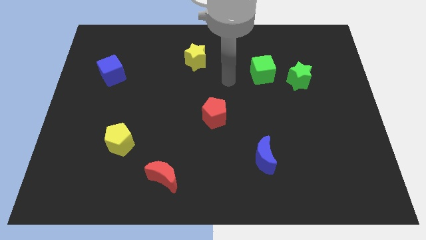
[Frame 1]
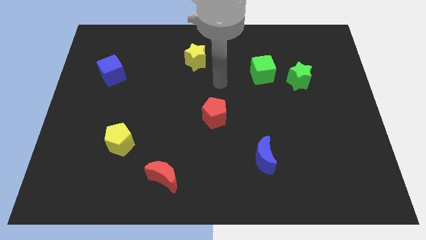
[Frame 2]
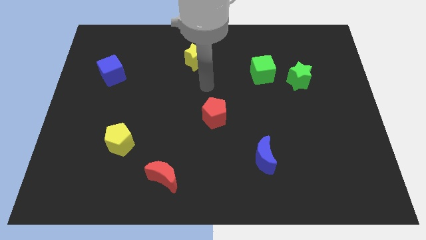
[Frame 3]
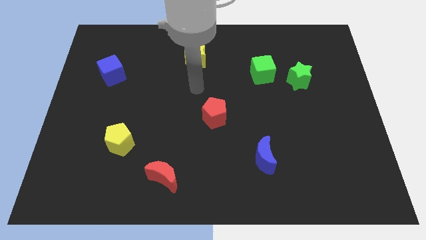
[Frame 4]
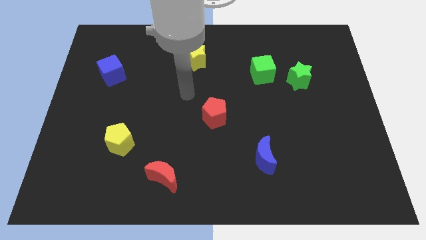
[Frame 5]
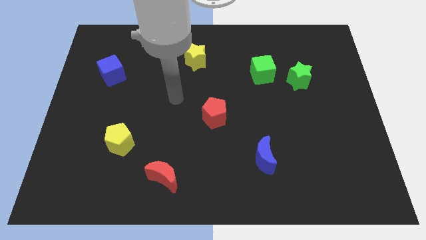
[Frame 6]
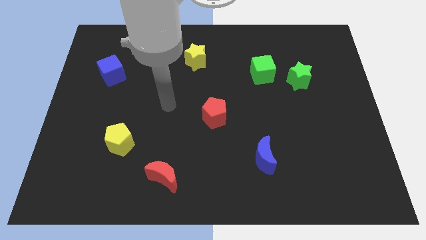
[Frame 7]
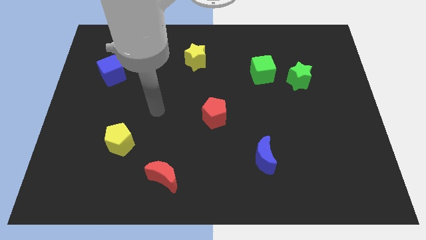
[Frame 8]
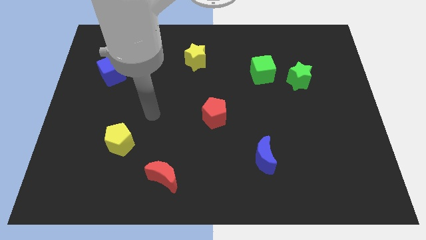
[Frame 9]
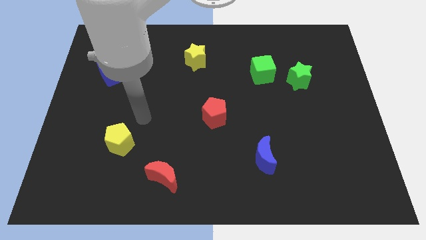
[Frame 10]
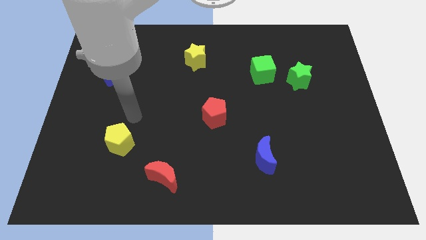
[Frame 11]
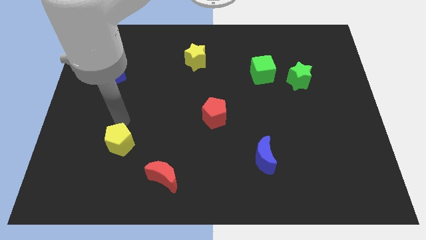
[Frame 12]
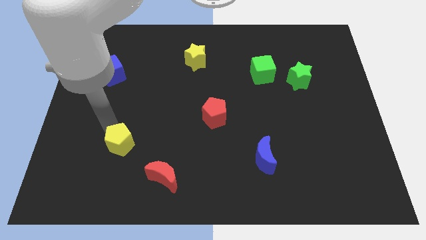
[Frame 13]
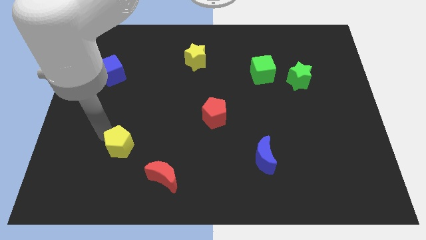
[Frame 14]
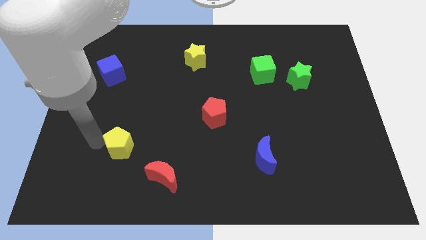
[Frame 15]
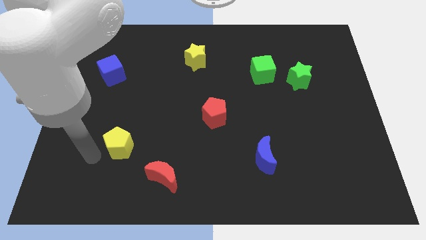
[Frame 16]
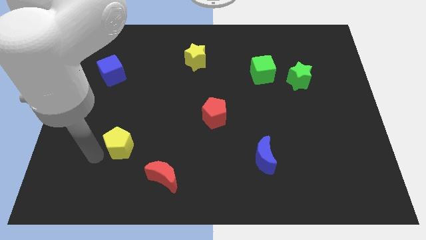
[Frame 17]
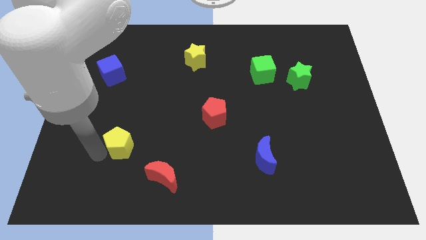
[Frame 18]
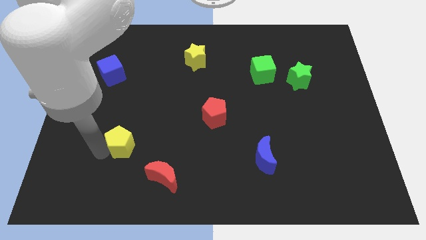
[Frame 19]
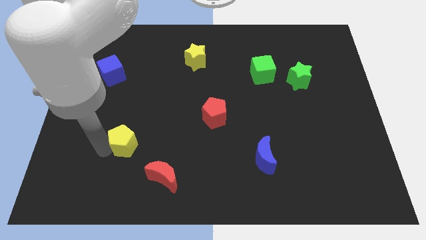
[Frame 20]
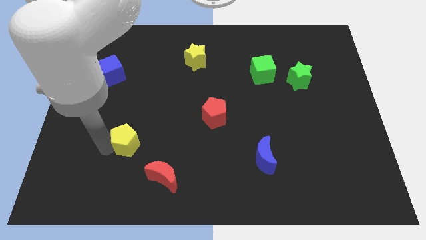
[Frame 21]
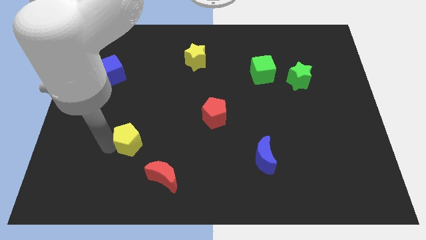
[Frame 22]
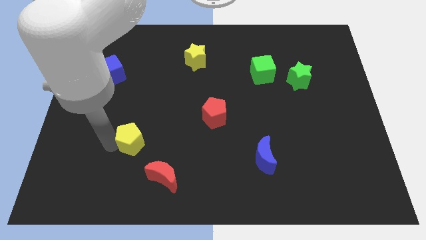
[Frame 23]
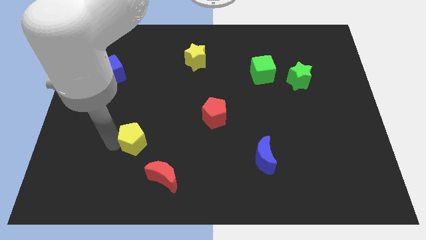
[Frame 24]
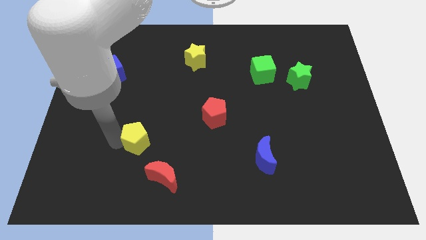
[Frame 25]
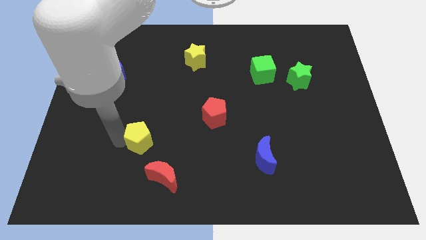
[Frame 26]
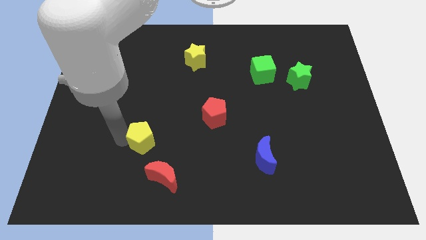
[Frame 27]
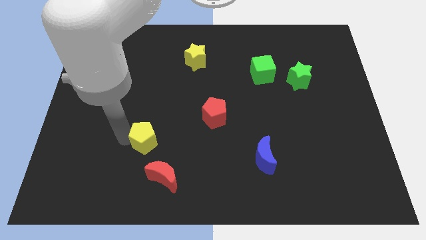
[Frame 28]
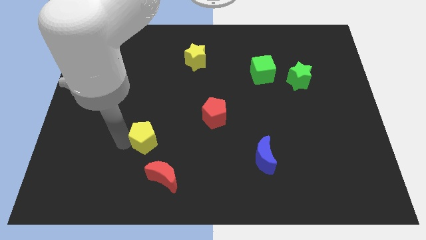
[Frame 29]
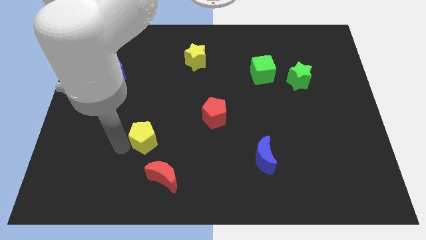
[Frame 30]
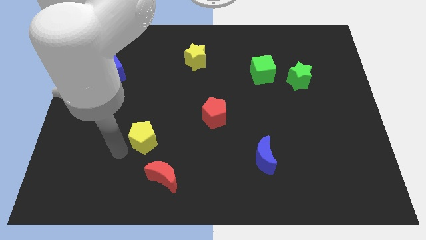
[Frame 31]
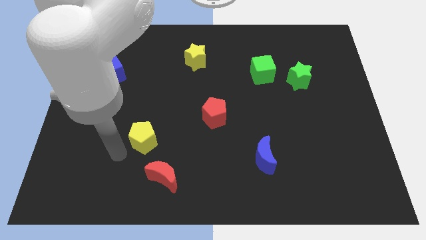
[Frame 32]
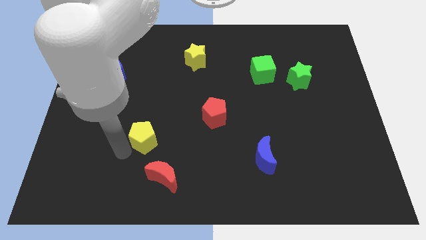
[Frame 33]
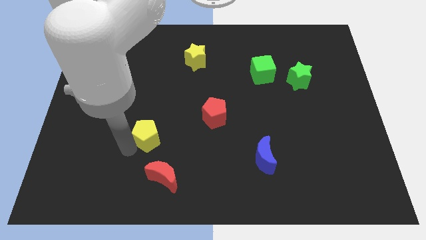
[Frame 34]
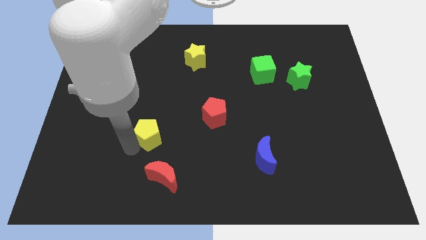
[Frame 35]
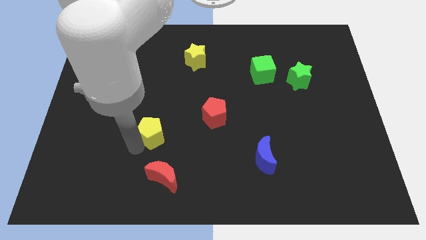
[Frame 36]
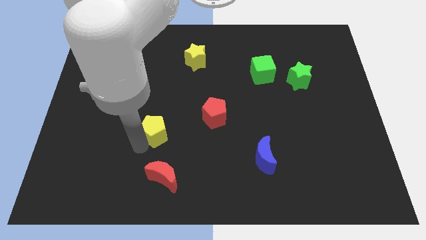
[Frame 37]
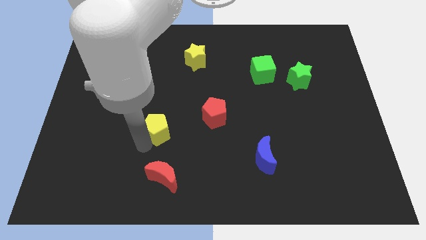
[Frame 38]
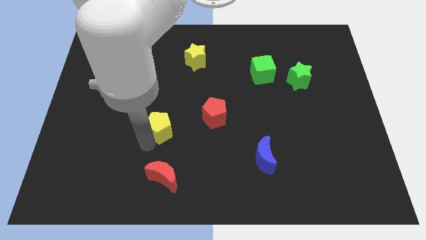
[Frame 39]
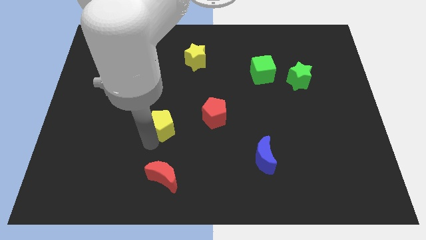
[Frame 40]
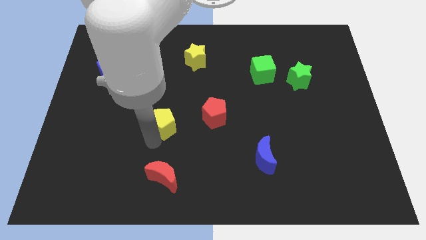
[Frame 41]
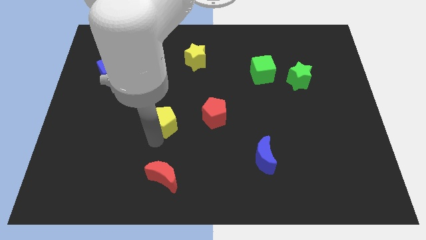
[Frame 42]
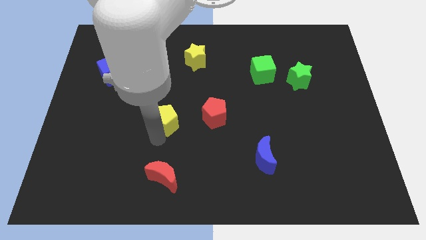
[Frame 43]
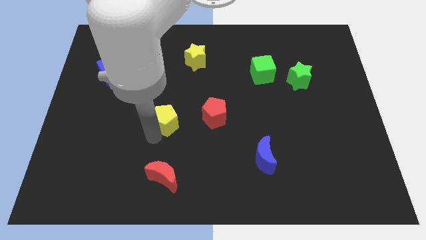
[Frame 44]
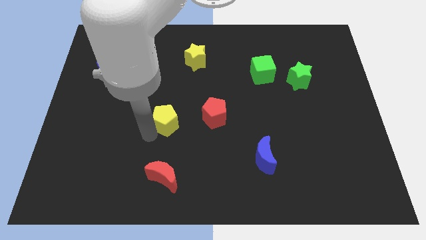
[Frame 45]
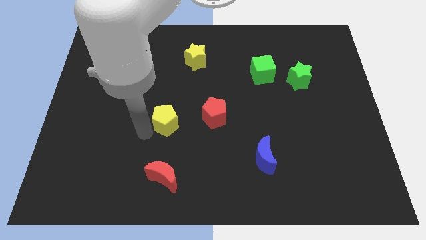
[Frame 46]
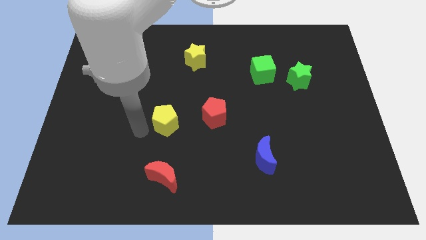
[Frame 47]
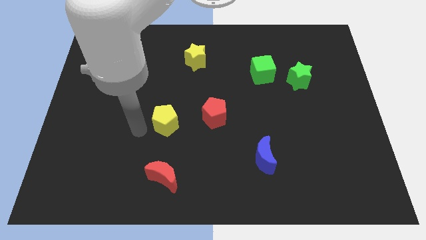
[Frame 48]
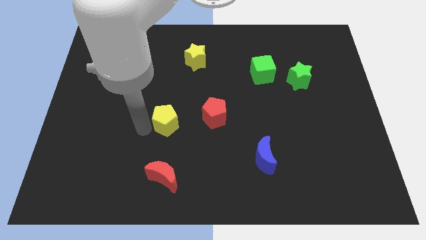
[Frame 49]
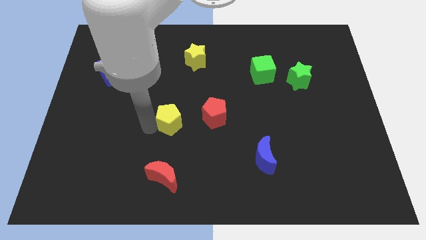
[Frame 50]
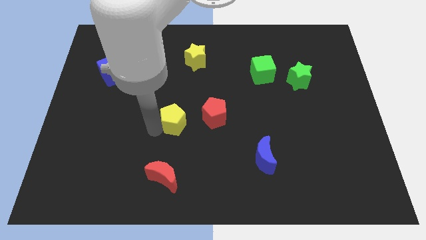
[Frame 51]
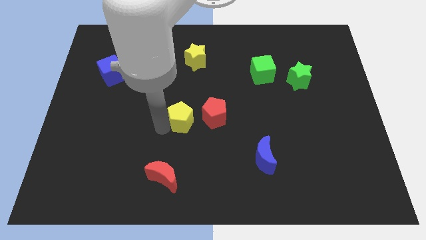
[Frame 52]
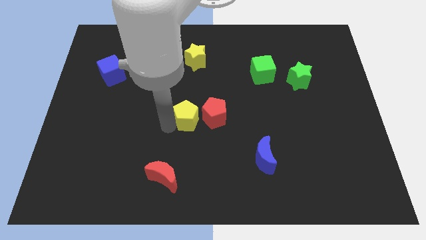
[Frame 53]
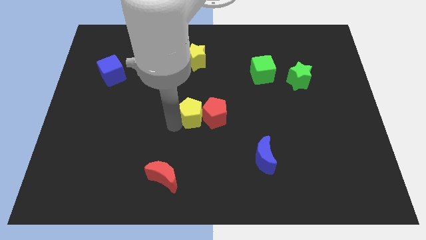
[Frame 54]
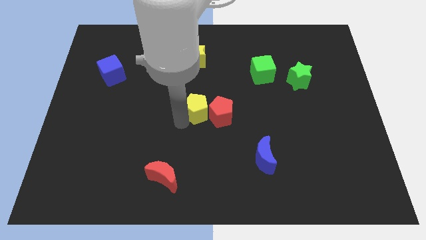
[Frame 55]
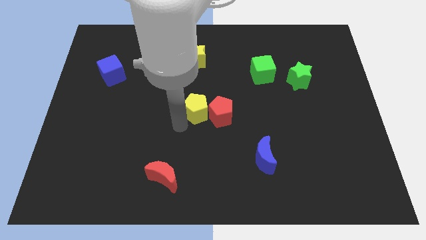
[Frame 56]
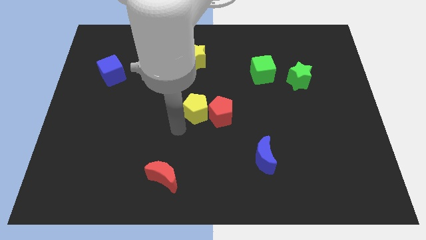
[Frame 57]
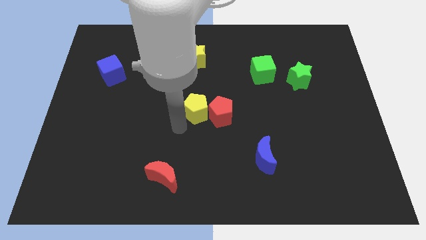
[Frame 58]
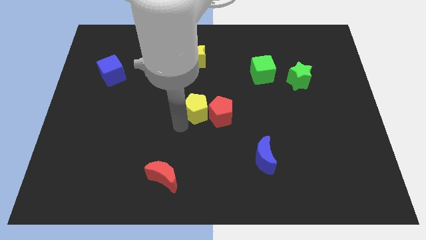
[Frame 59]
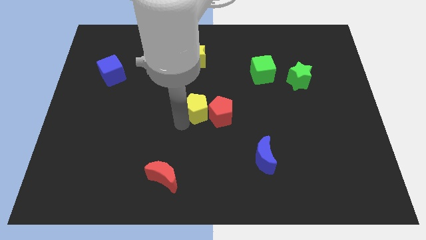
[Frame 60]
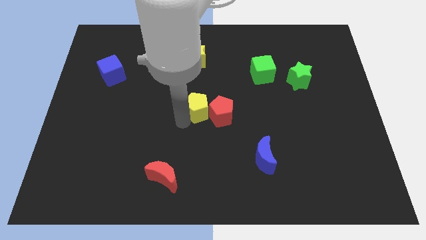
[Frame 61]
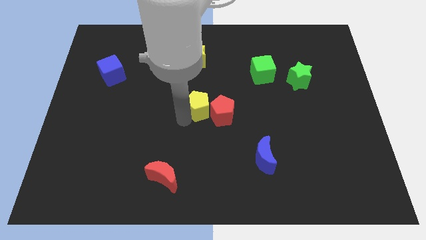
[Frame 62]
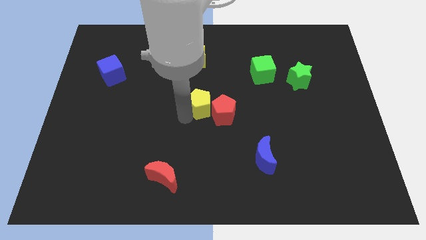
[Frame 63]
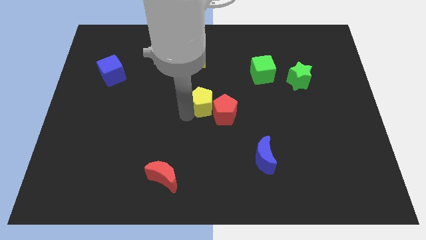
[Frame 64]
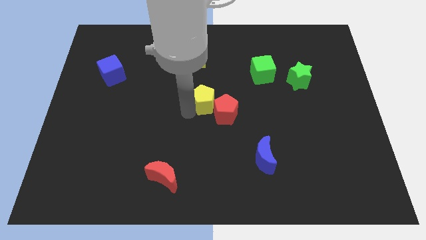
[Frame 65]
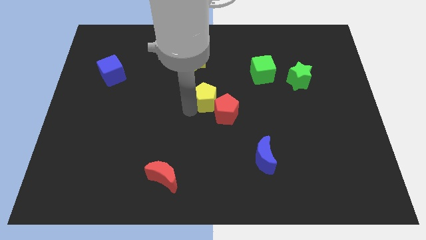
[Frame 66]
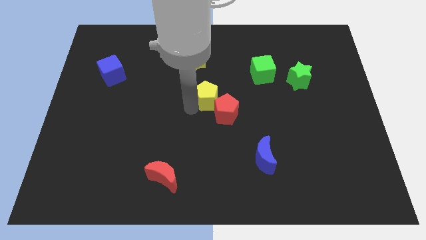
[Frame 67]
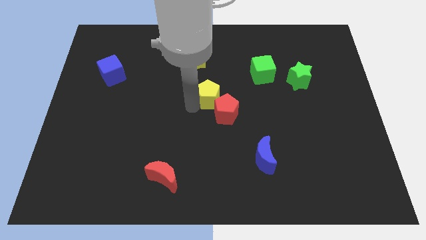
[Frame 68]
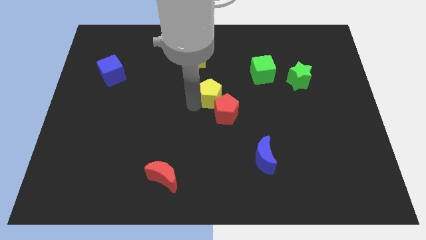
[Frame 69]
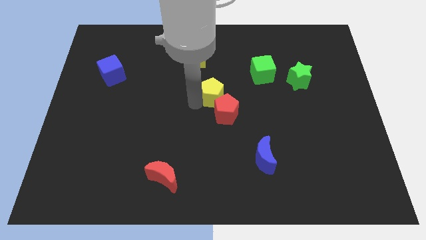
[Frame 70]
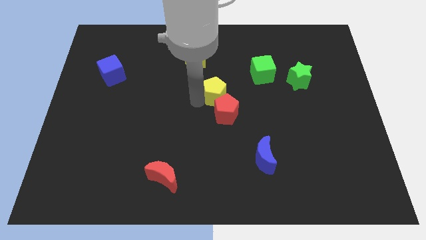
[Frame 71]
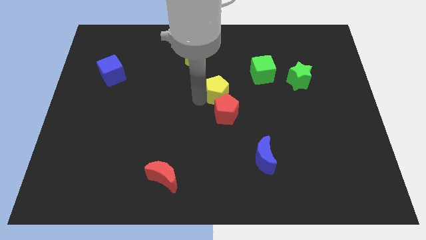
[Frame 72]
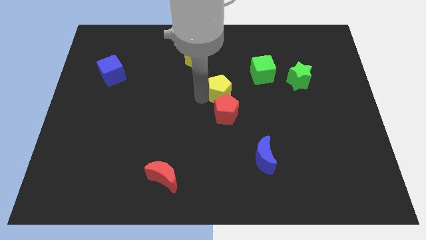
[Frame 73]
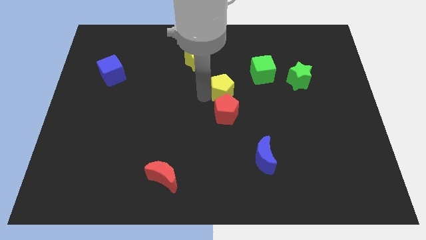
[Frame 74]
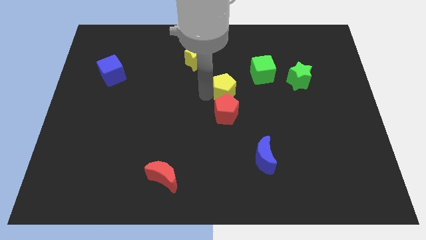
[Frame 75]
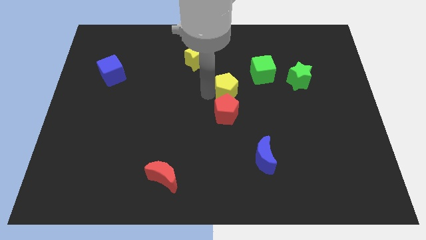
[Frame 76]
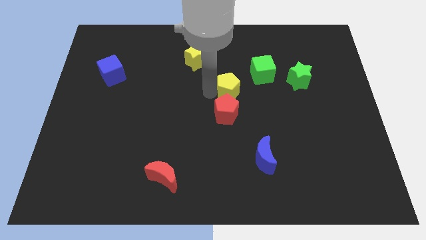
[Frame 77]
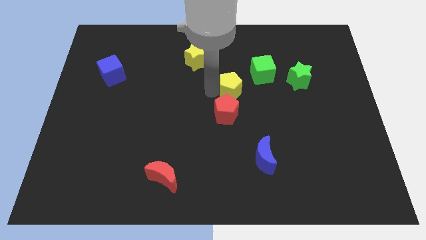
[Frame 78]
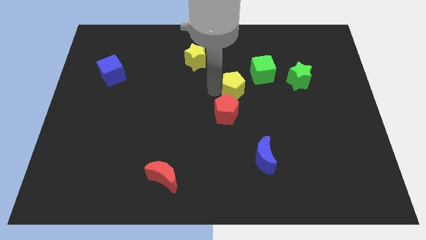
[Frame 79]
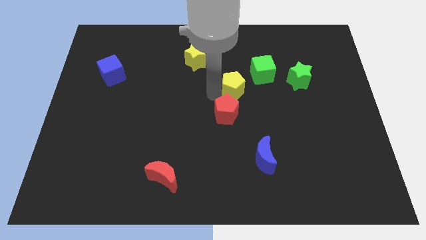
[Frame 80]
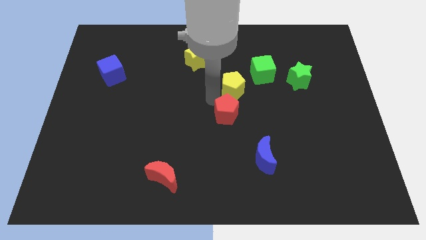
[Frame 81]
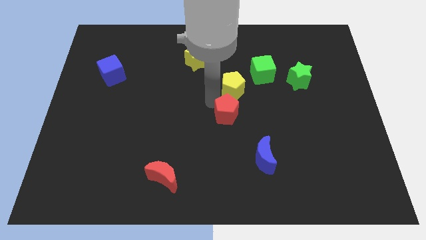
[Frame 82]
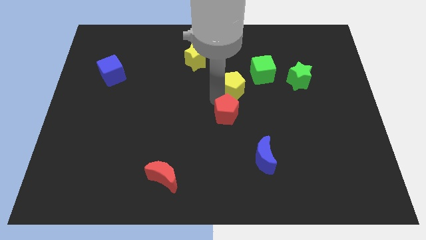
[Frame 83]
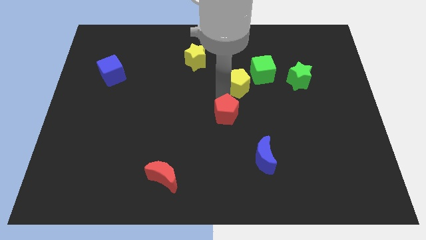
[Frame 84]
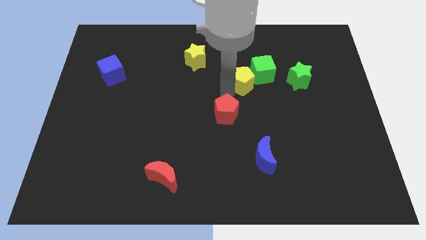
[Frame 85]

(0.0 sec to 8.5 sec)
push the yellow pentagon towards the green cube

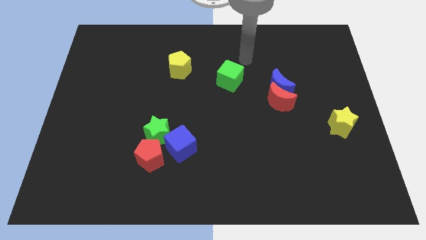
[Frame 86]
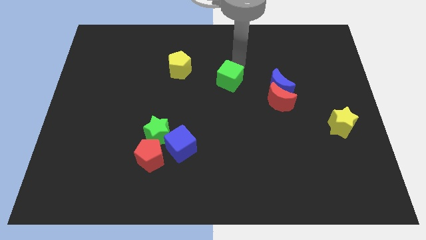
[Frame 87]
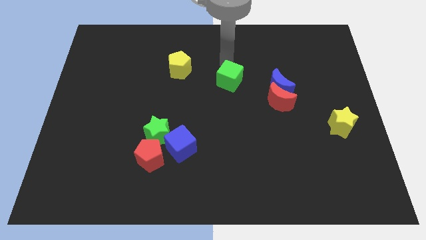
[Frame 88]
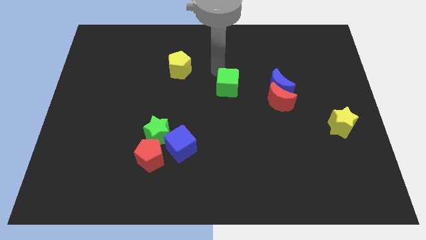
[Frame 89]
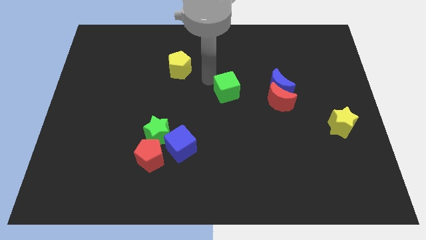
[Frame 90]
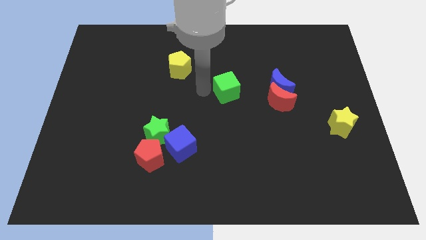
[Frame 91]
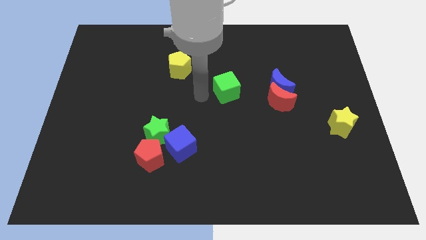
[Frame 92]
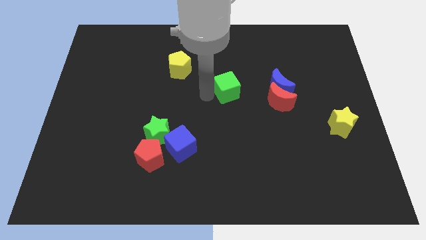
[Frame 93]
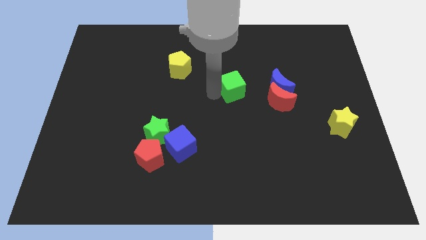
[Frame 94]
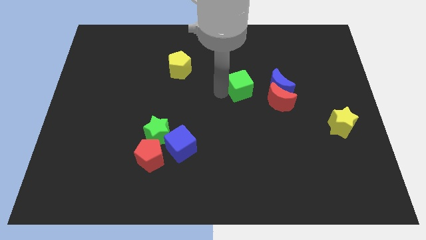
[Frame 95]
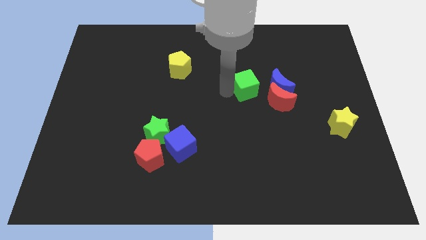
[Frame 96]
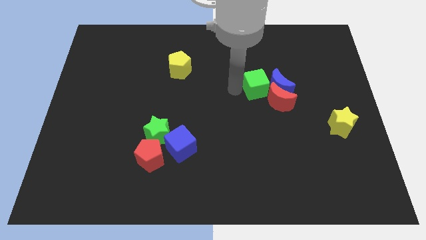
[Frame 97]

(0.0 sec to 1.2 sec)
move the green cube towards the blue moon
